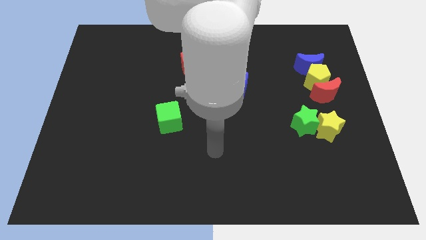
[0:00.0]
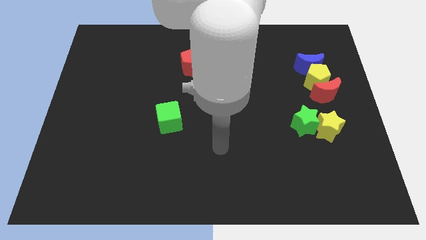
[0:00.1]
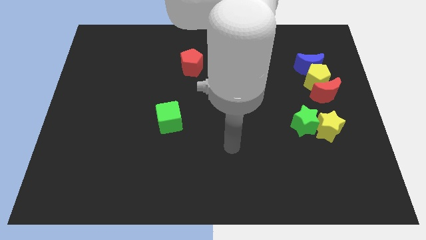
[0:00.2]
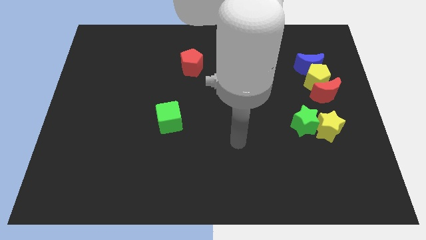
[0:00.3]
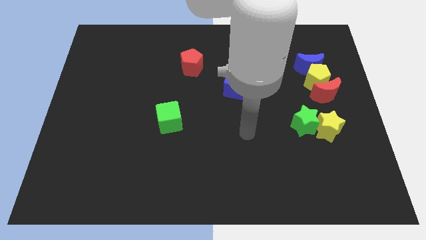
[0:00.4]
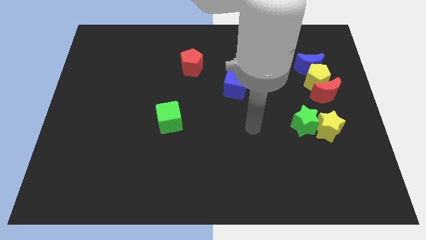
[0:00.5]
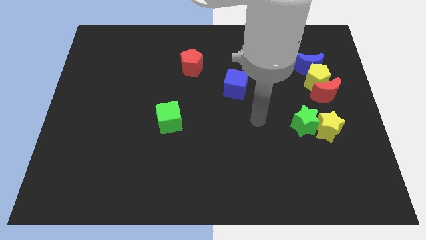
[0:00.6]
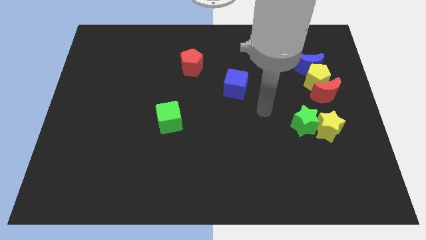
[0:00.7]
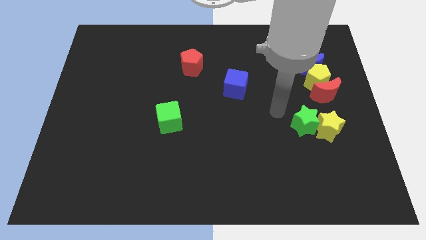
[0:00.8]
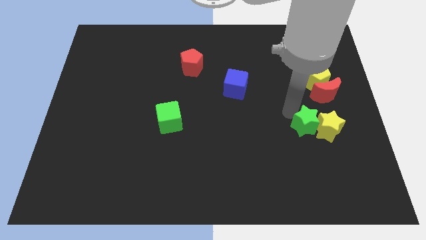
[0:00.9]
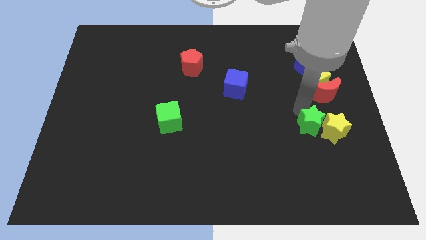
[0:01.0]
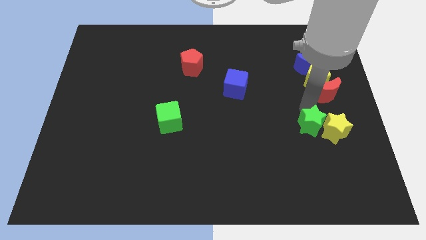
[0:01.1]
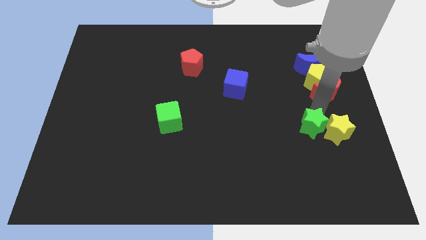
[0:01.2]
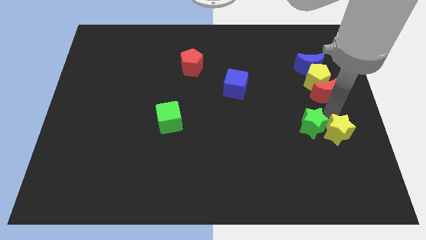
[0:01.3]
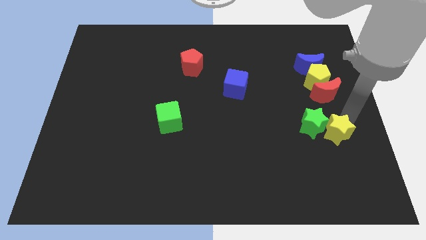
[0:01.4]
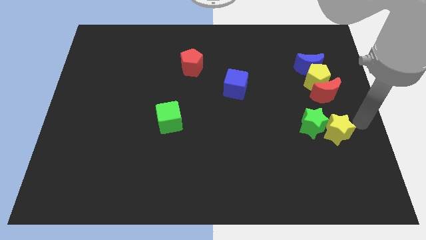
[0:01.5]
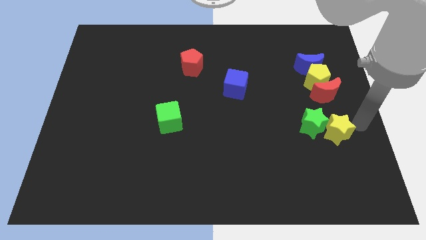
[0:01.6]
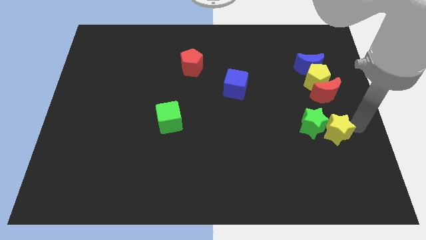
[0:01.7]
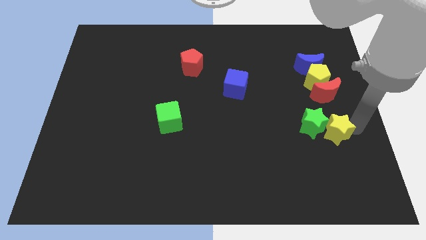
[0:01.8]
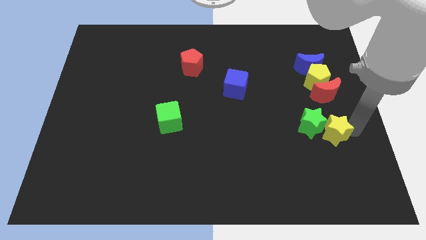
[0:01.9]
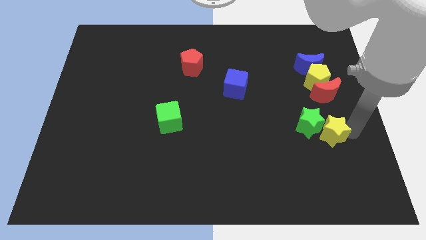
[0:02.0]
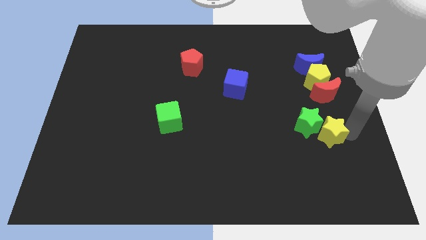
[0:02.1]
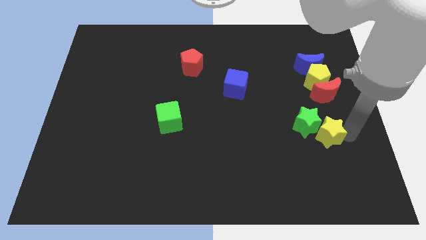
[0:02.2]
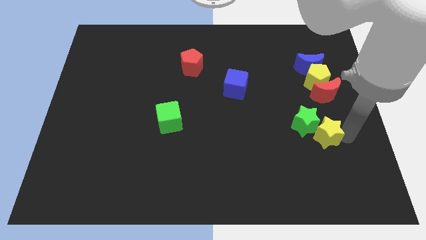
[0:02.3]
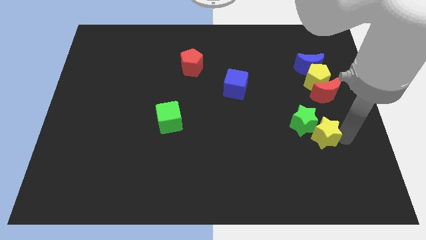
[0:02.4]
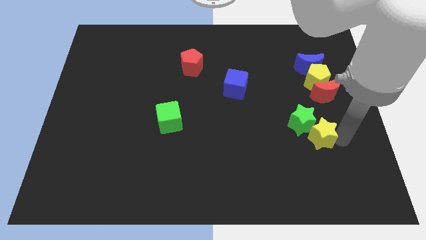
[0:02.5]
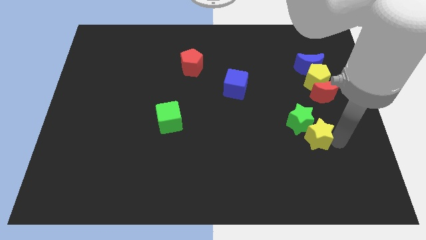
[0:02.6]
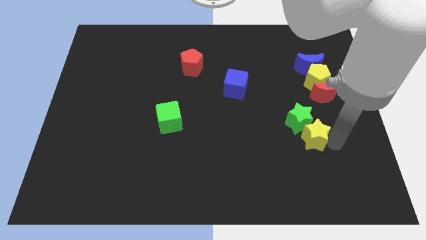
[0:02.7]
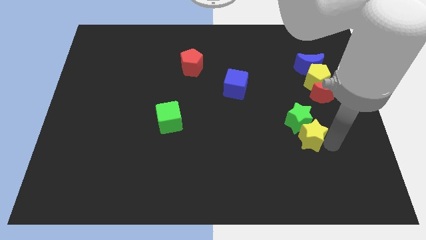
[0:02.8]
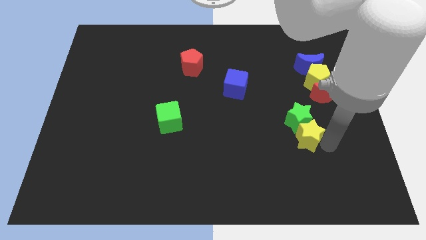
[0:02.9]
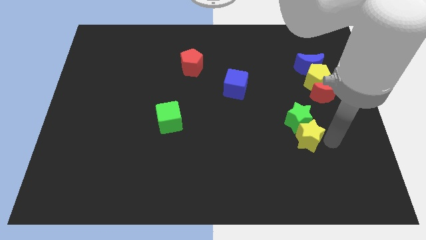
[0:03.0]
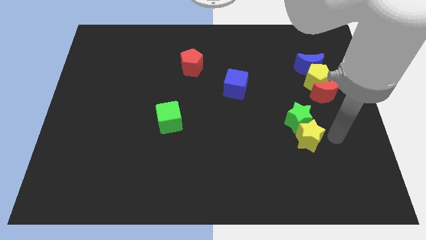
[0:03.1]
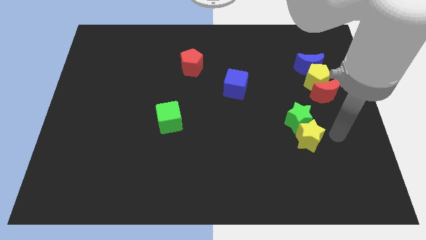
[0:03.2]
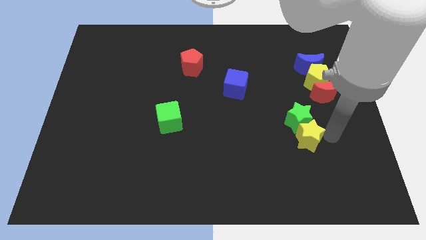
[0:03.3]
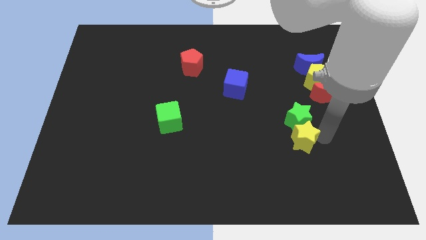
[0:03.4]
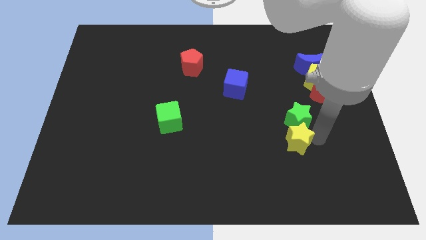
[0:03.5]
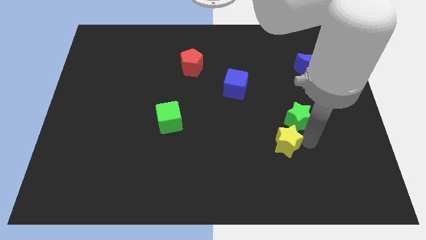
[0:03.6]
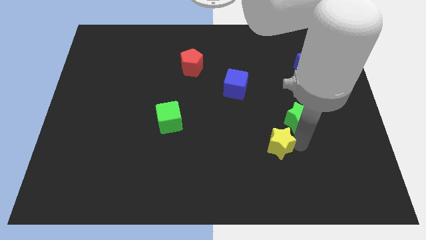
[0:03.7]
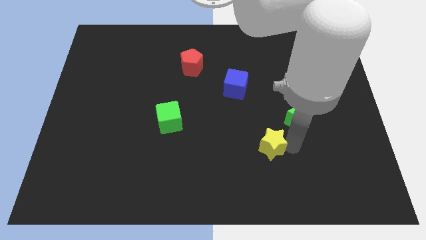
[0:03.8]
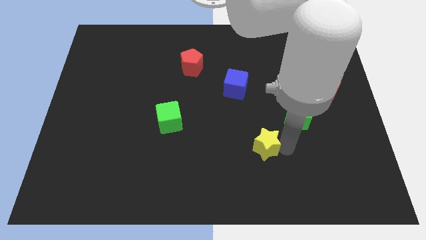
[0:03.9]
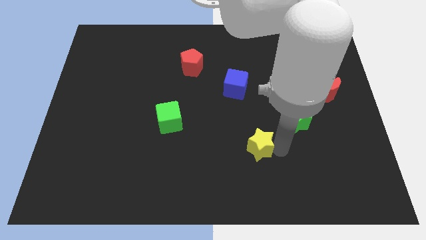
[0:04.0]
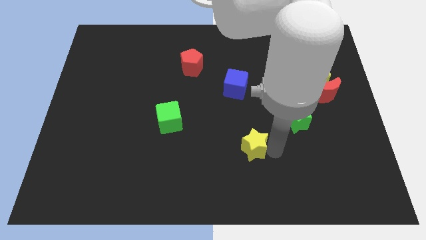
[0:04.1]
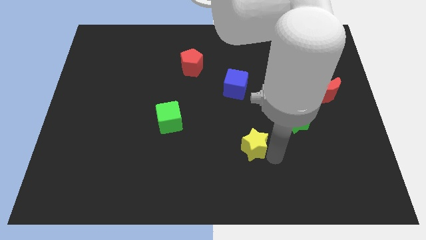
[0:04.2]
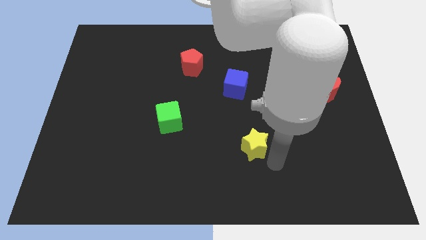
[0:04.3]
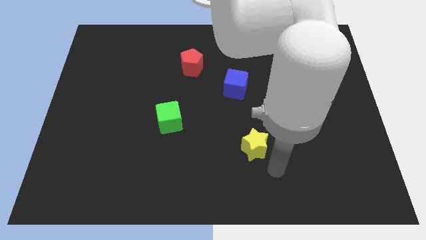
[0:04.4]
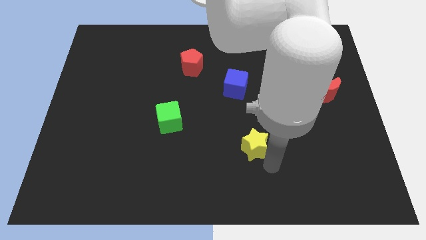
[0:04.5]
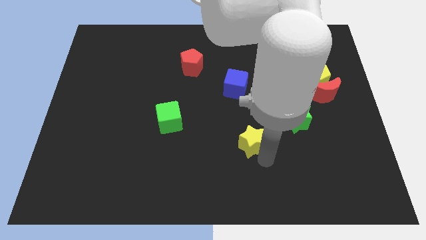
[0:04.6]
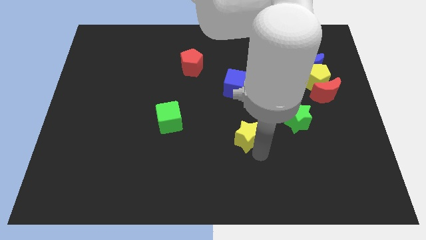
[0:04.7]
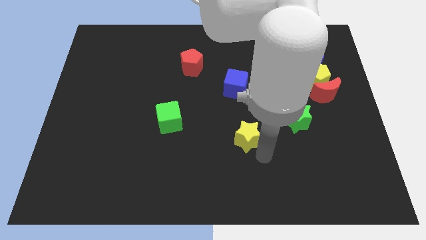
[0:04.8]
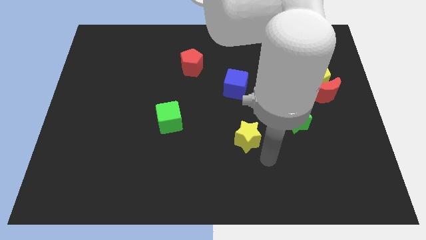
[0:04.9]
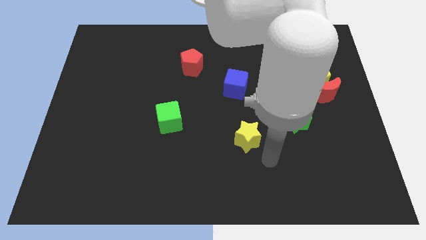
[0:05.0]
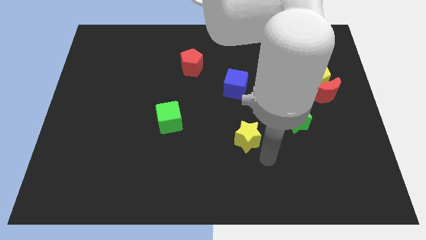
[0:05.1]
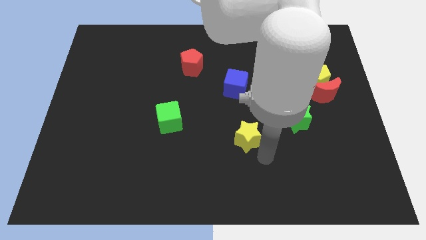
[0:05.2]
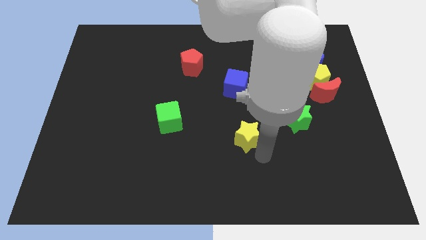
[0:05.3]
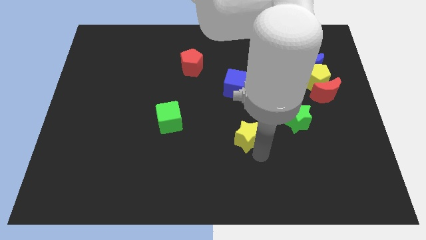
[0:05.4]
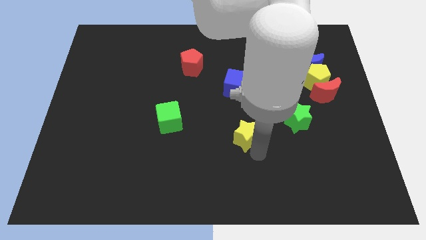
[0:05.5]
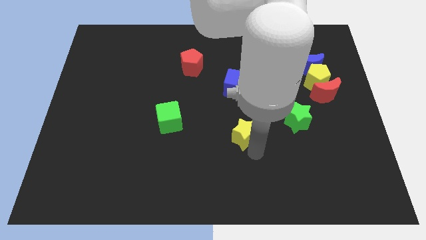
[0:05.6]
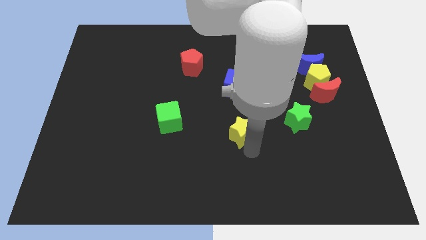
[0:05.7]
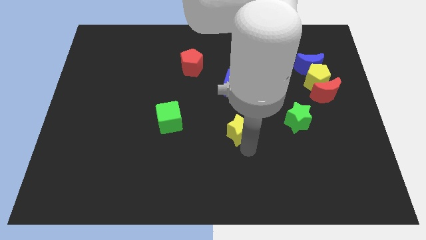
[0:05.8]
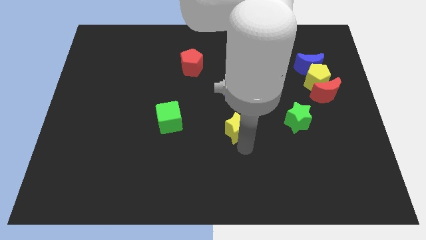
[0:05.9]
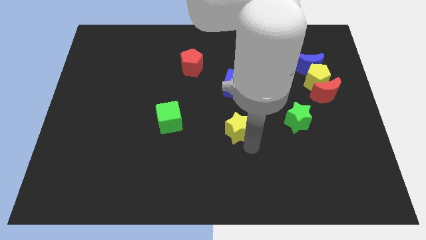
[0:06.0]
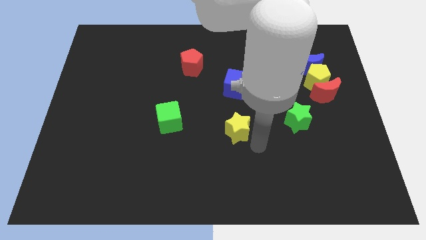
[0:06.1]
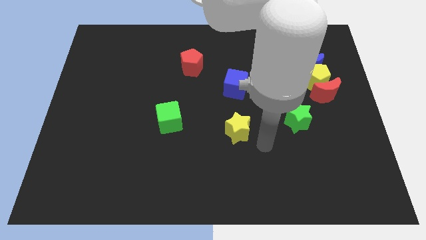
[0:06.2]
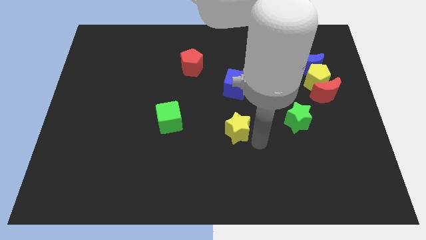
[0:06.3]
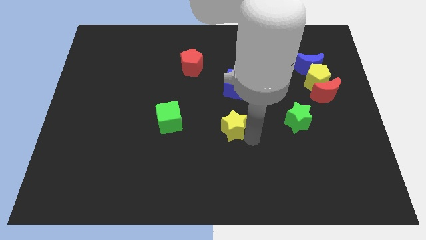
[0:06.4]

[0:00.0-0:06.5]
move the yellow star right of the green cube
